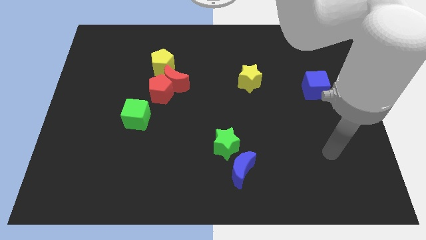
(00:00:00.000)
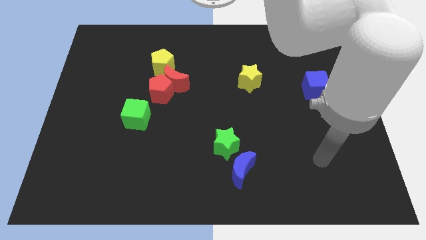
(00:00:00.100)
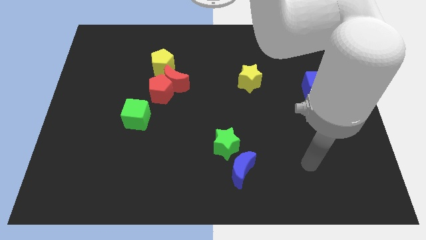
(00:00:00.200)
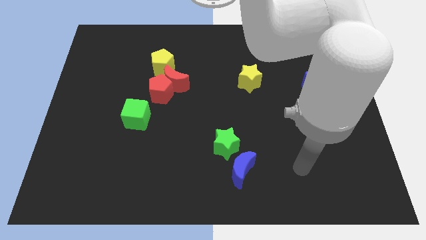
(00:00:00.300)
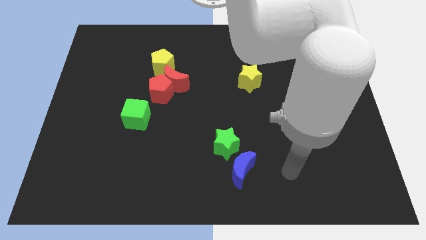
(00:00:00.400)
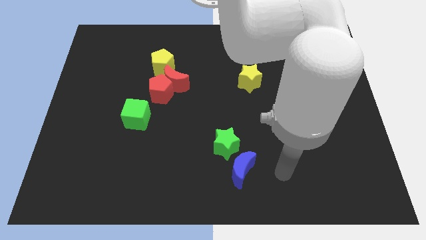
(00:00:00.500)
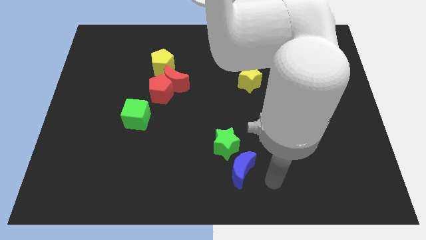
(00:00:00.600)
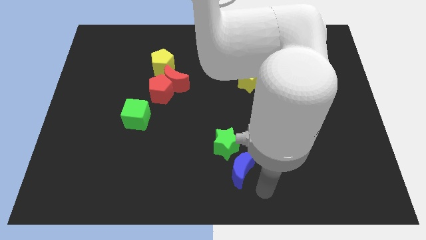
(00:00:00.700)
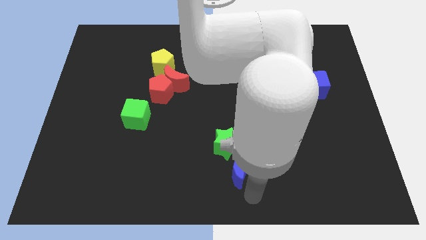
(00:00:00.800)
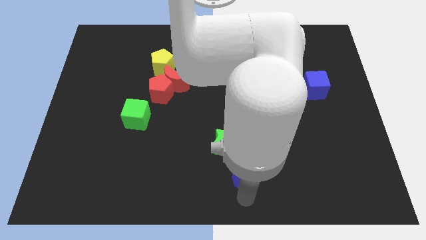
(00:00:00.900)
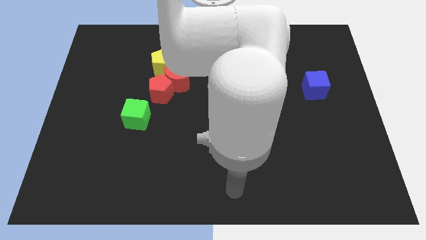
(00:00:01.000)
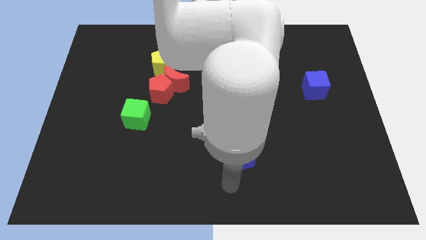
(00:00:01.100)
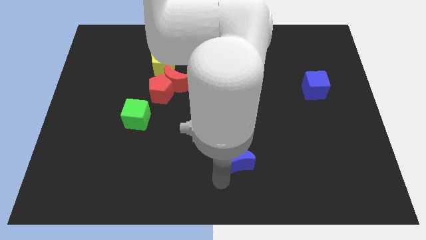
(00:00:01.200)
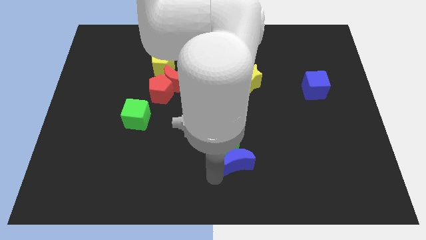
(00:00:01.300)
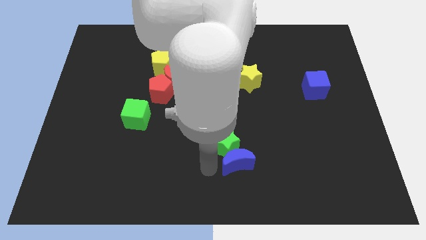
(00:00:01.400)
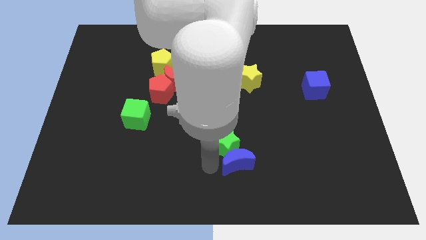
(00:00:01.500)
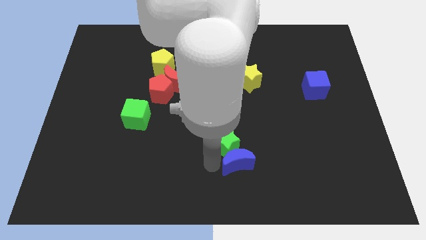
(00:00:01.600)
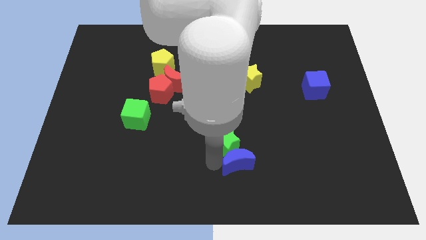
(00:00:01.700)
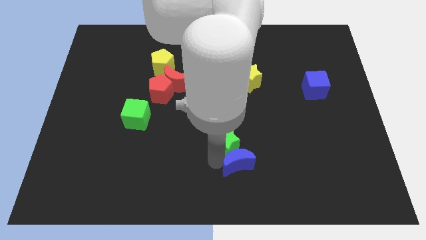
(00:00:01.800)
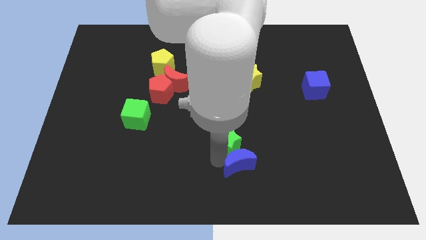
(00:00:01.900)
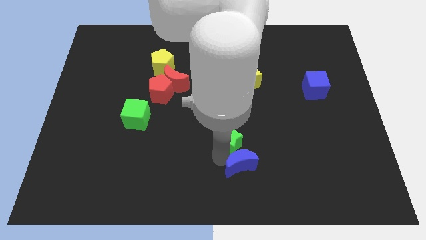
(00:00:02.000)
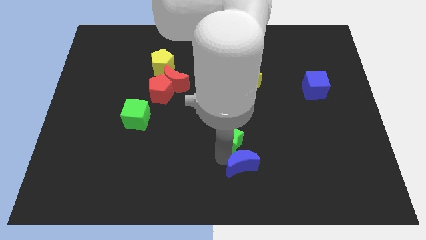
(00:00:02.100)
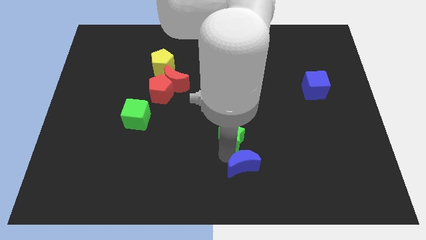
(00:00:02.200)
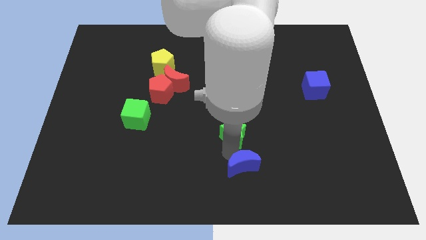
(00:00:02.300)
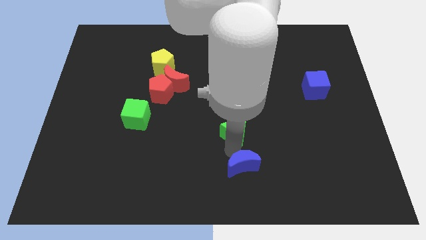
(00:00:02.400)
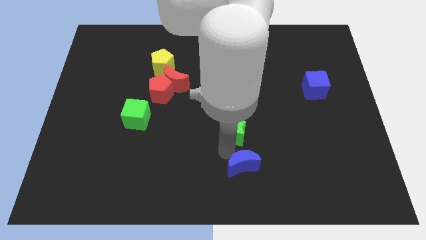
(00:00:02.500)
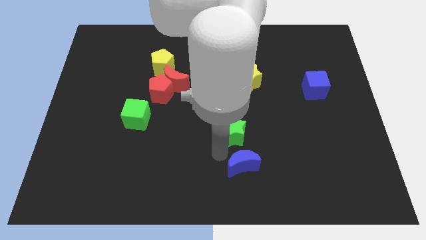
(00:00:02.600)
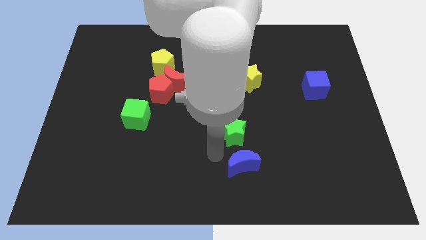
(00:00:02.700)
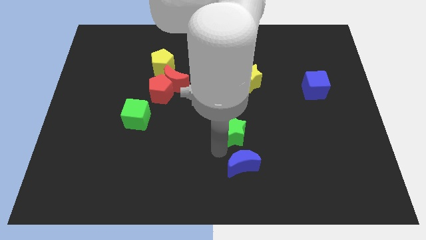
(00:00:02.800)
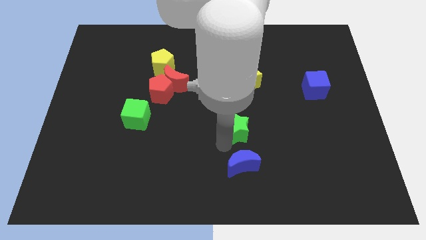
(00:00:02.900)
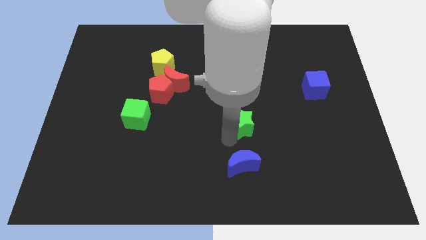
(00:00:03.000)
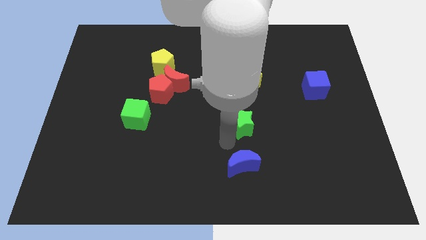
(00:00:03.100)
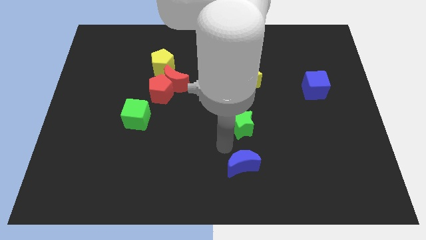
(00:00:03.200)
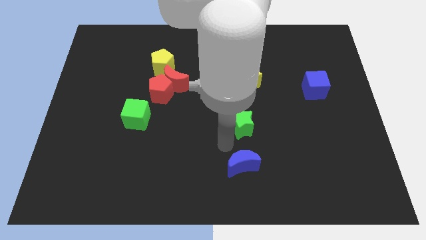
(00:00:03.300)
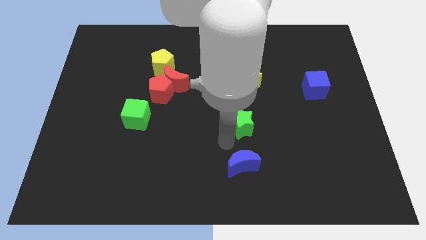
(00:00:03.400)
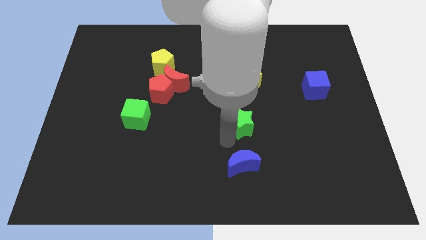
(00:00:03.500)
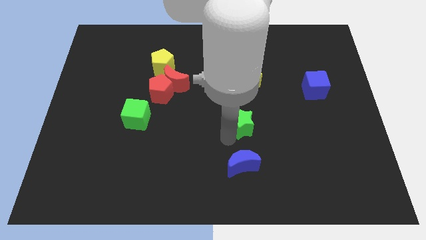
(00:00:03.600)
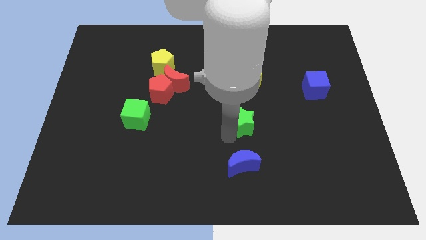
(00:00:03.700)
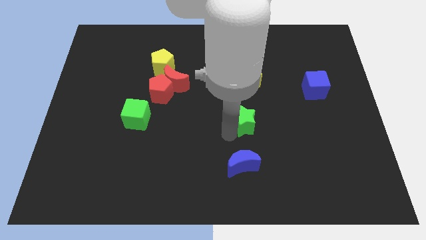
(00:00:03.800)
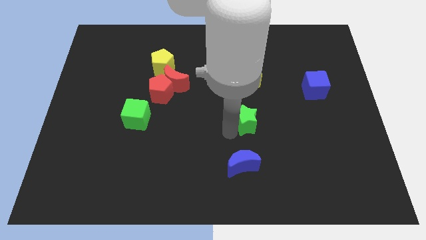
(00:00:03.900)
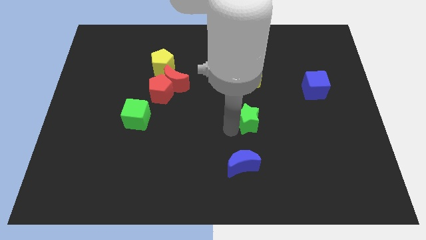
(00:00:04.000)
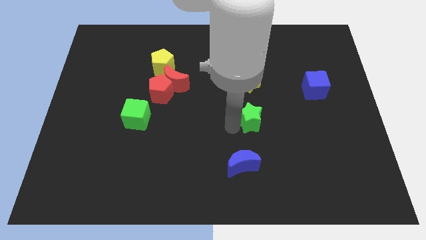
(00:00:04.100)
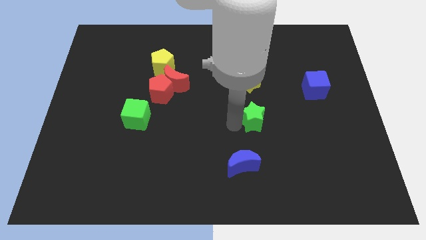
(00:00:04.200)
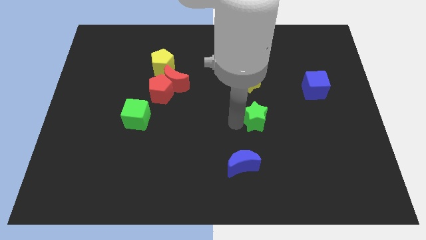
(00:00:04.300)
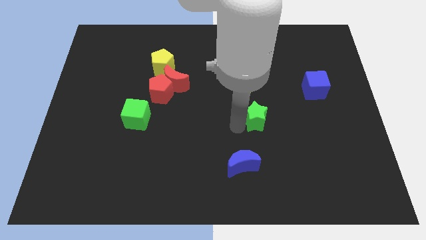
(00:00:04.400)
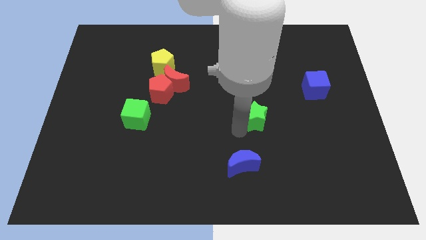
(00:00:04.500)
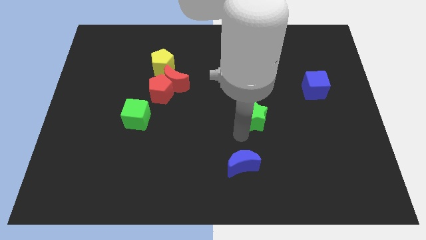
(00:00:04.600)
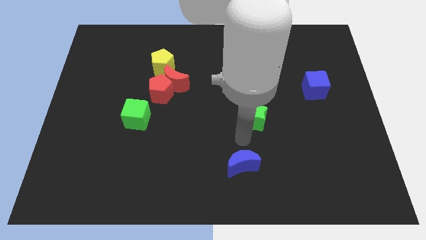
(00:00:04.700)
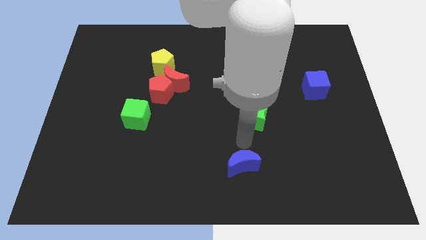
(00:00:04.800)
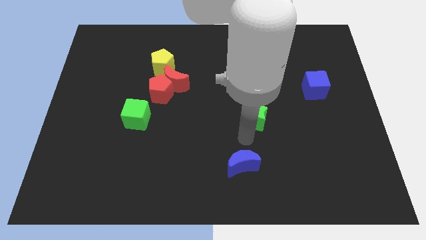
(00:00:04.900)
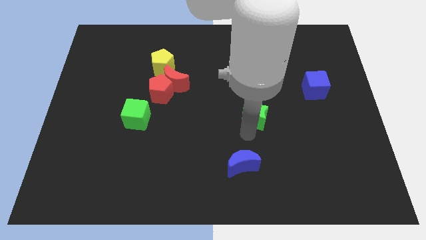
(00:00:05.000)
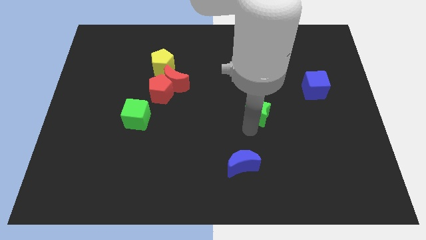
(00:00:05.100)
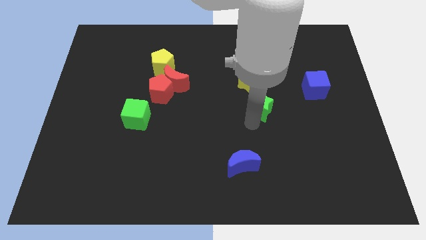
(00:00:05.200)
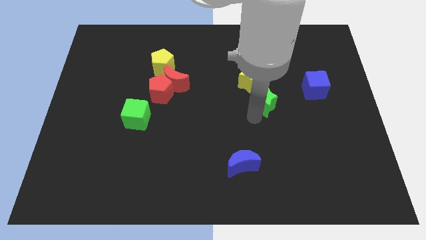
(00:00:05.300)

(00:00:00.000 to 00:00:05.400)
put the green star diagonally down and to the right of the yellow star

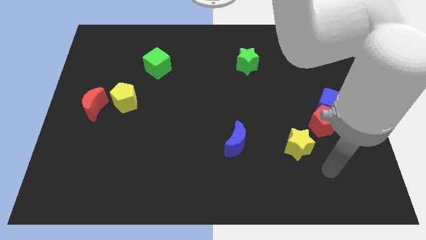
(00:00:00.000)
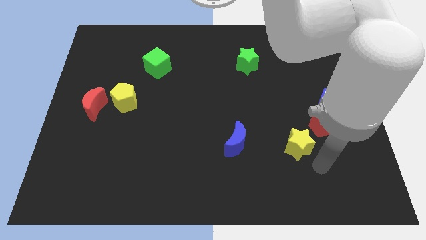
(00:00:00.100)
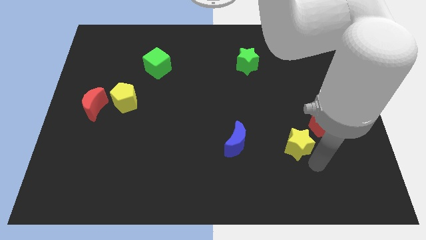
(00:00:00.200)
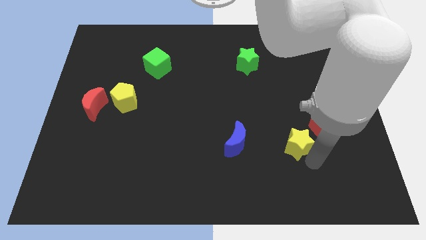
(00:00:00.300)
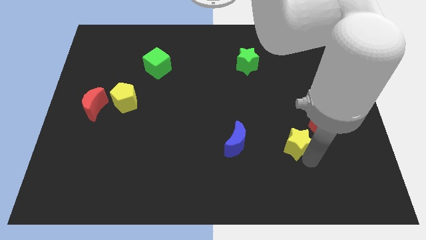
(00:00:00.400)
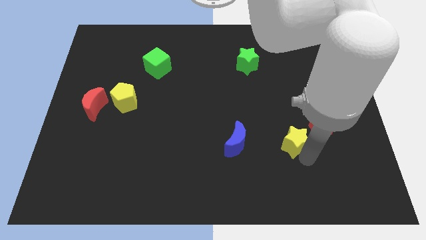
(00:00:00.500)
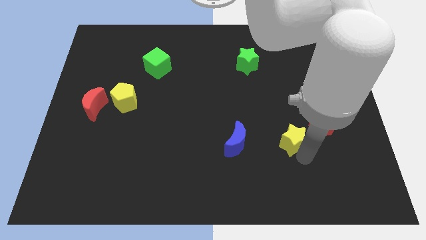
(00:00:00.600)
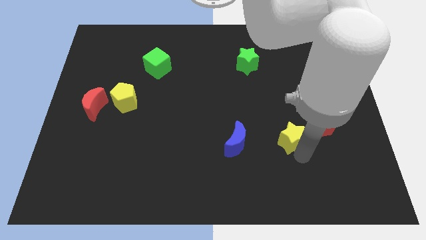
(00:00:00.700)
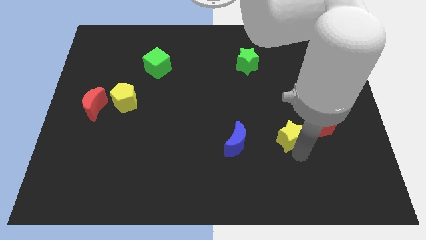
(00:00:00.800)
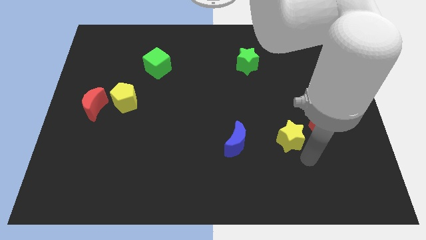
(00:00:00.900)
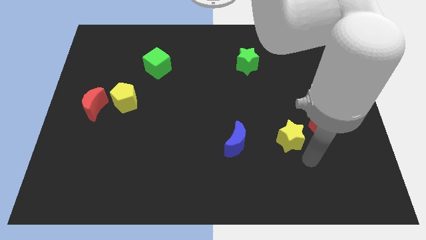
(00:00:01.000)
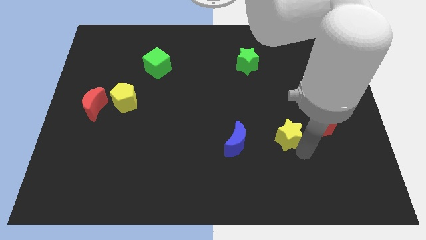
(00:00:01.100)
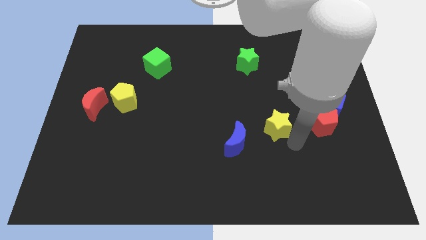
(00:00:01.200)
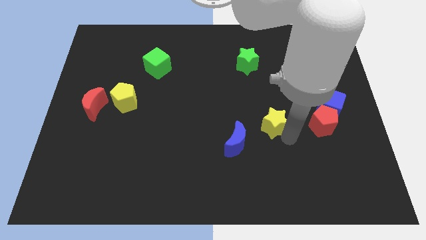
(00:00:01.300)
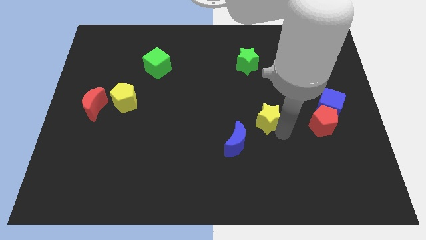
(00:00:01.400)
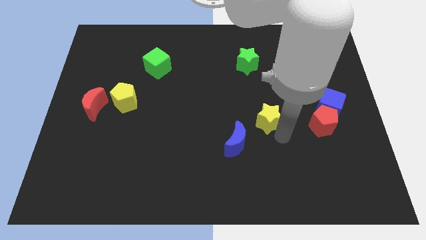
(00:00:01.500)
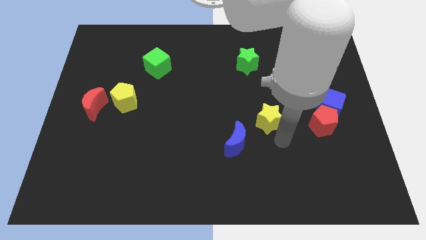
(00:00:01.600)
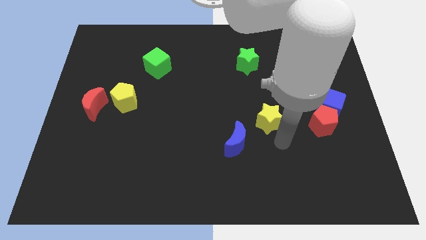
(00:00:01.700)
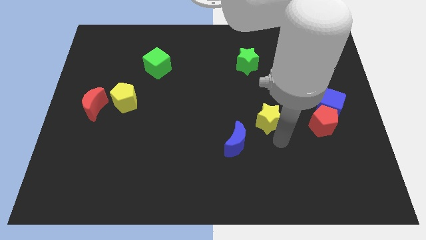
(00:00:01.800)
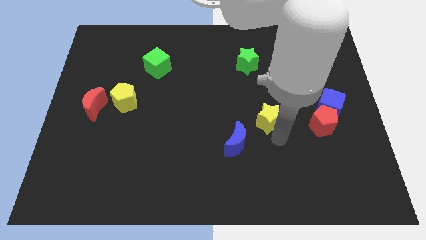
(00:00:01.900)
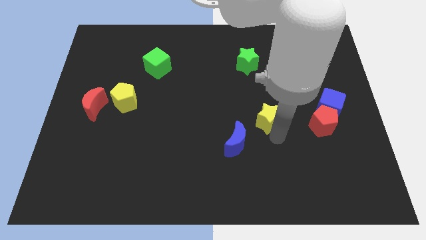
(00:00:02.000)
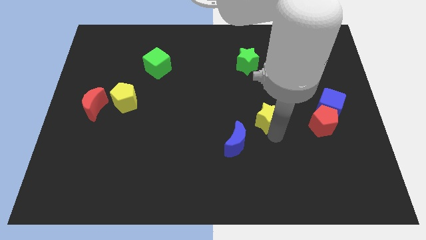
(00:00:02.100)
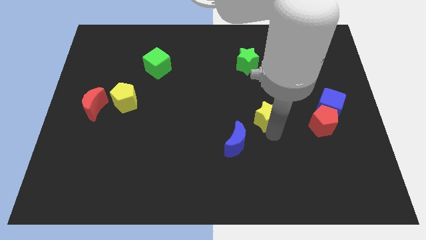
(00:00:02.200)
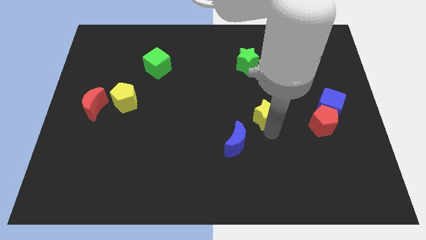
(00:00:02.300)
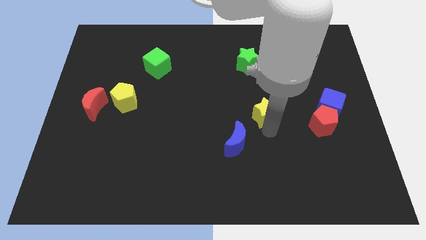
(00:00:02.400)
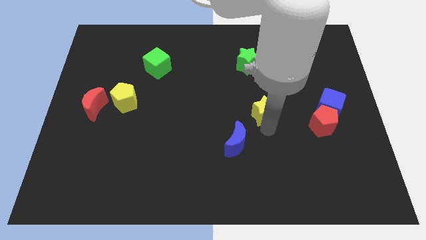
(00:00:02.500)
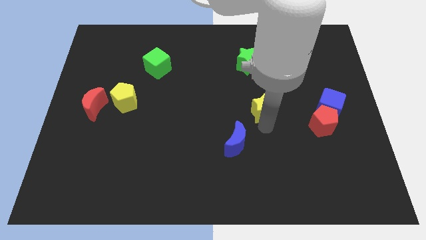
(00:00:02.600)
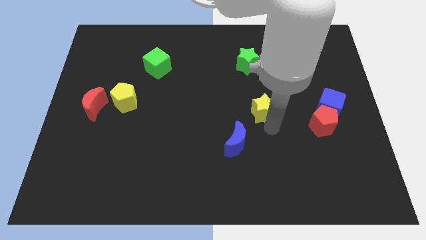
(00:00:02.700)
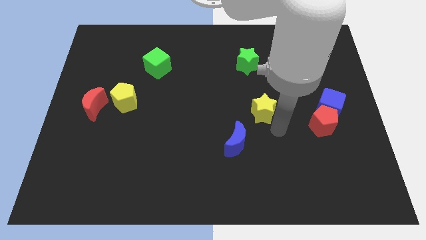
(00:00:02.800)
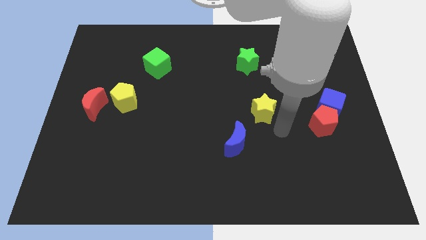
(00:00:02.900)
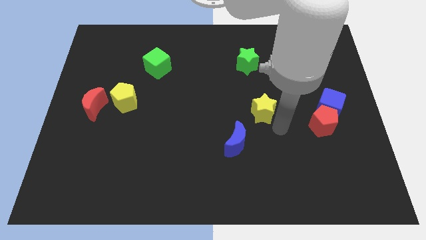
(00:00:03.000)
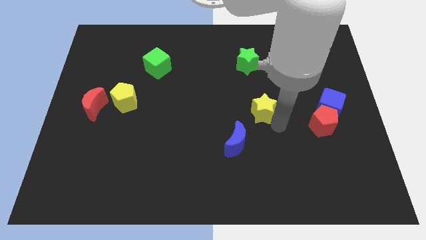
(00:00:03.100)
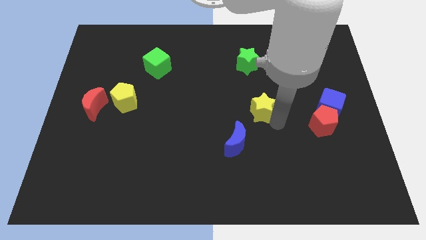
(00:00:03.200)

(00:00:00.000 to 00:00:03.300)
slide the yellow star to the bottom of the green star
